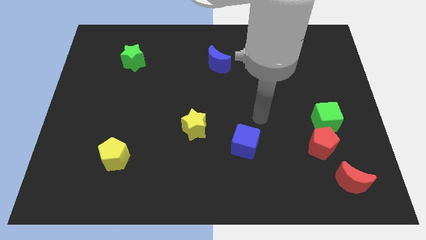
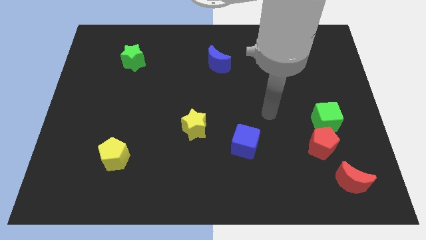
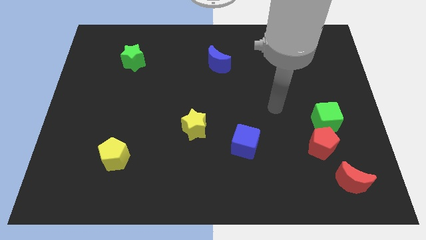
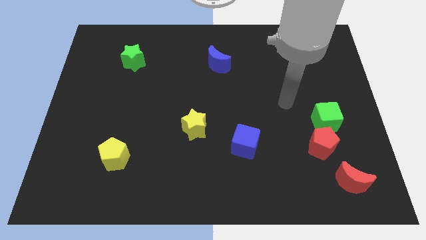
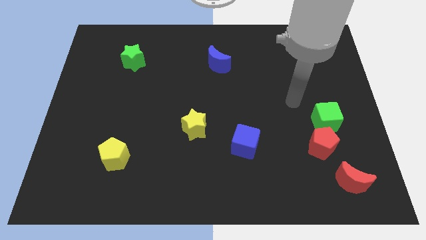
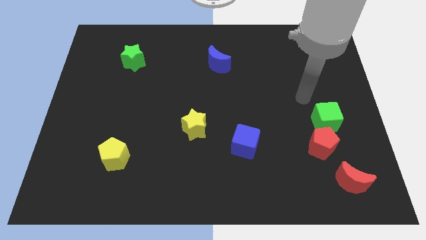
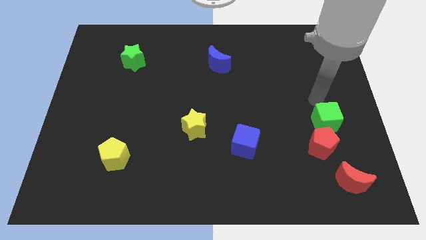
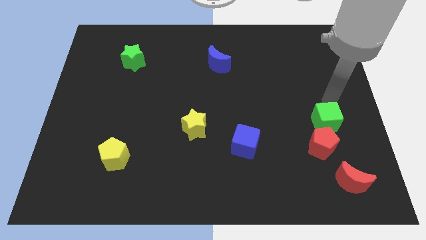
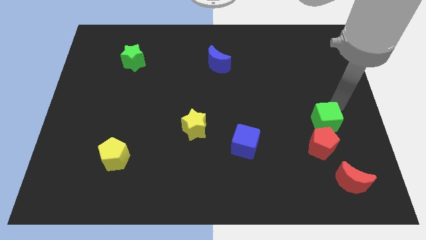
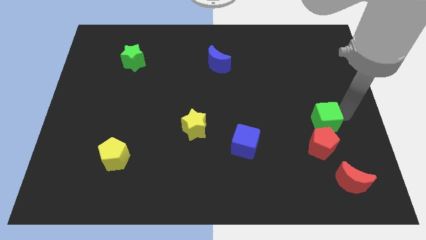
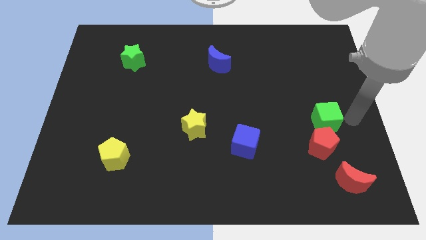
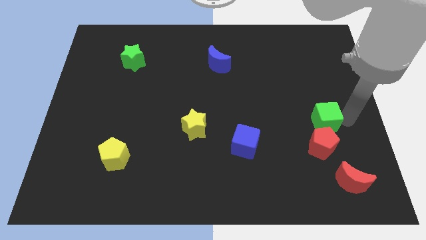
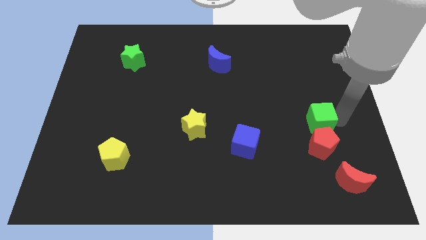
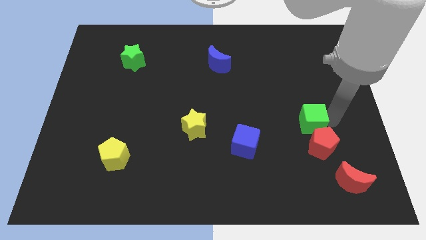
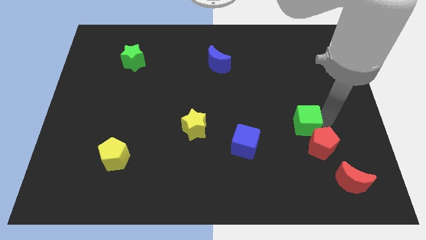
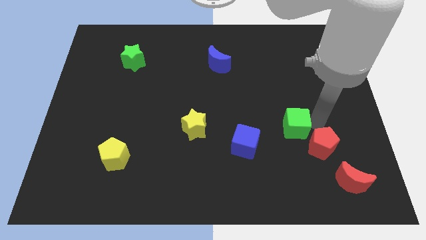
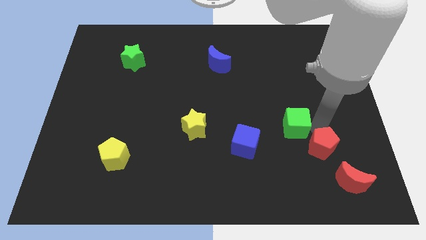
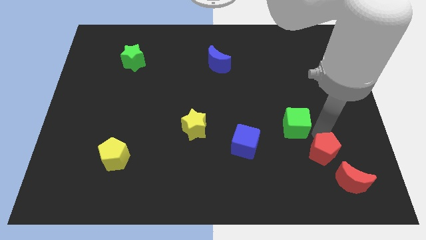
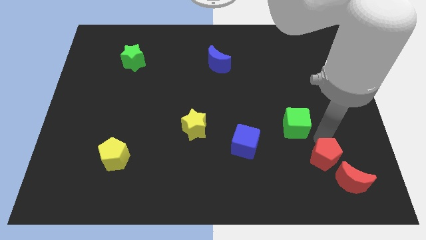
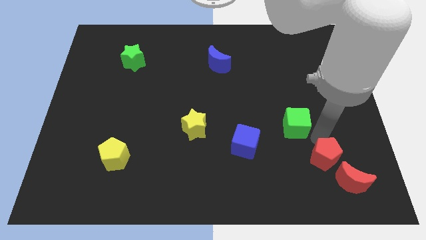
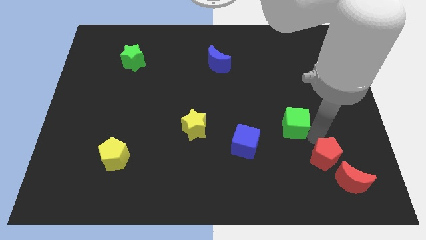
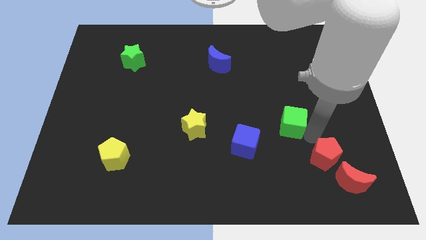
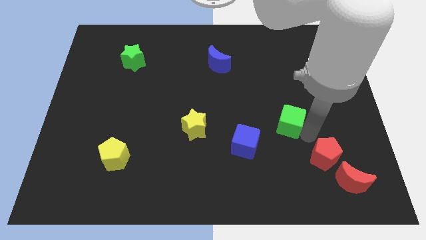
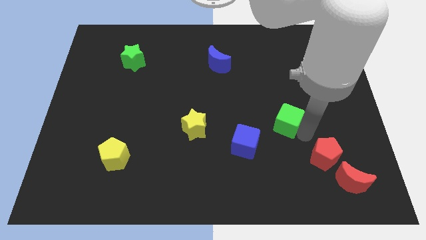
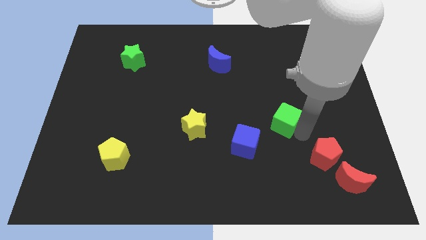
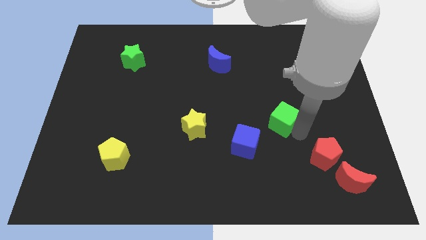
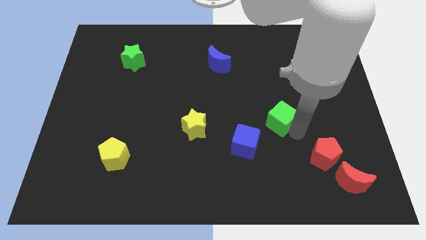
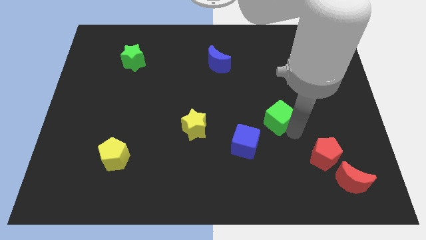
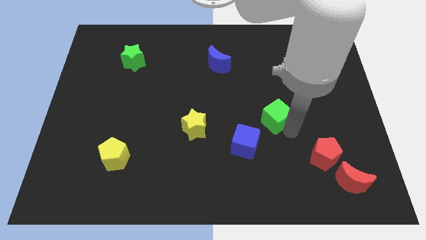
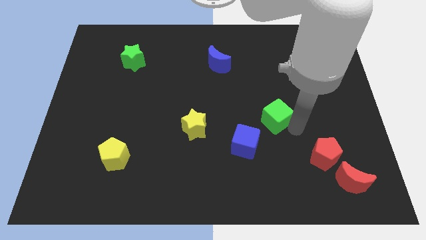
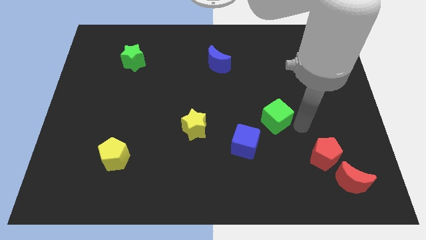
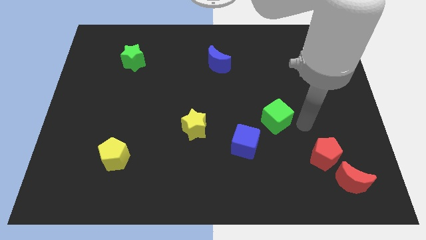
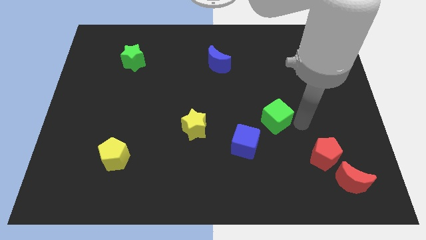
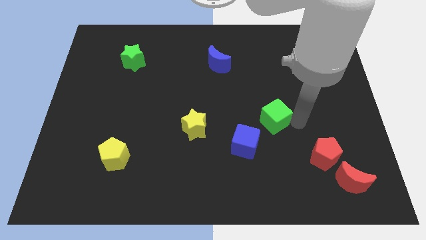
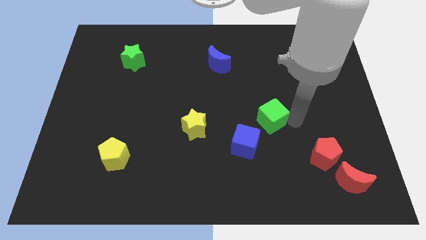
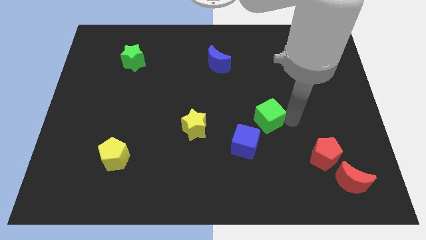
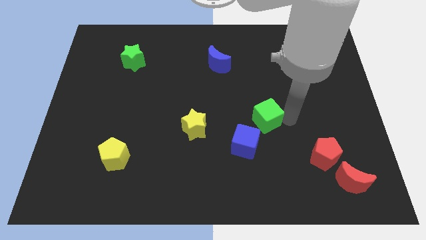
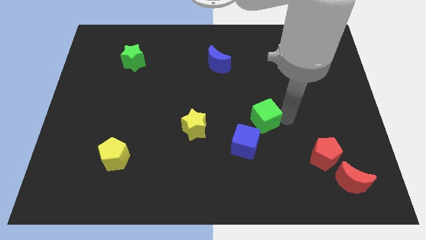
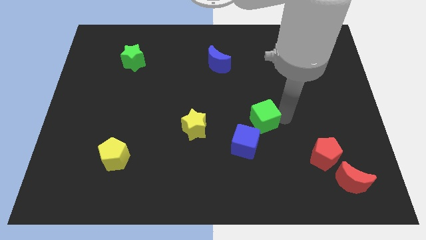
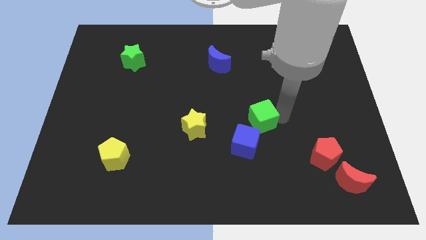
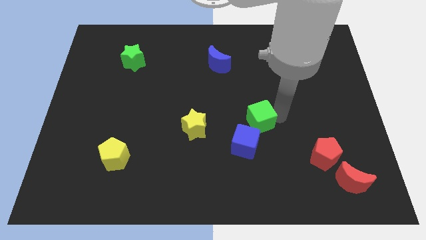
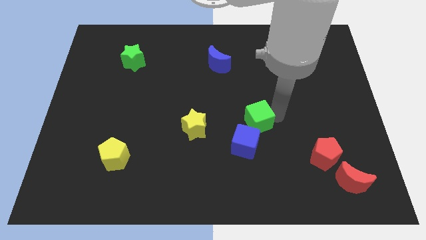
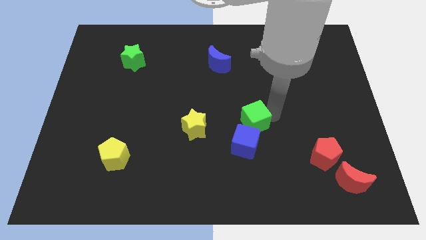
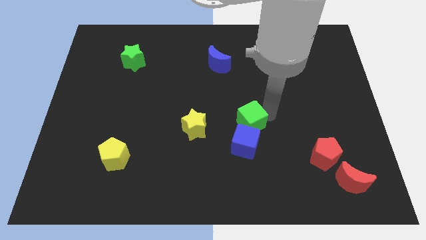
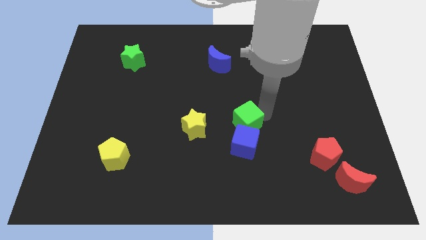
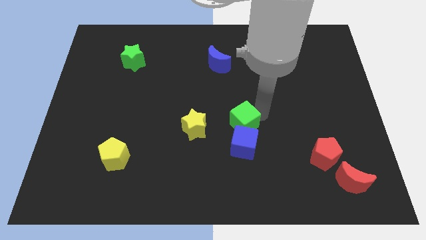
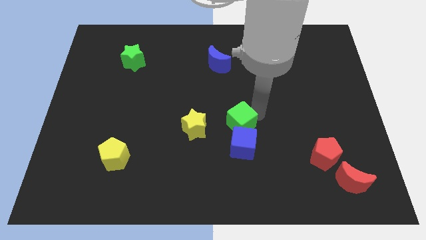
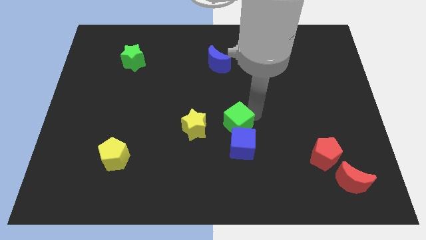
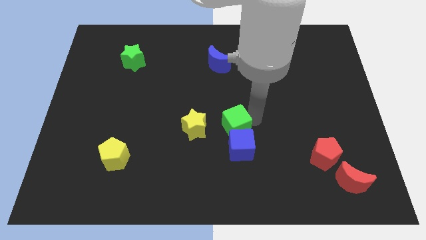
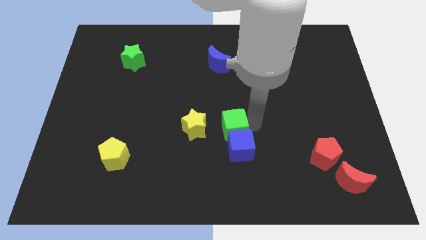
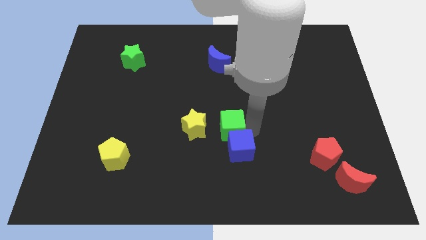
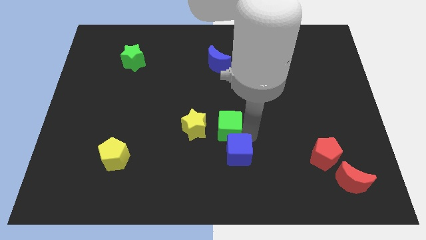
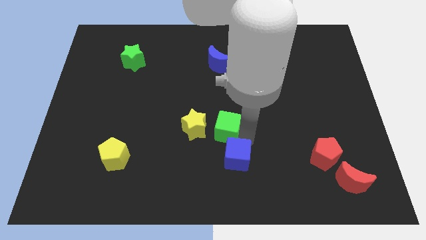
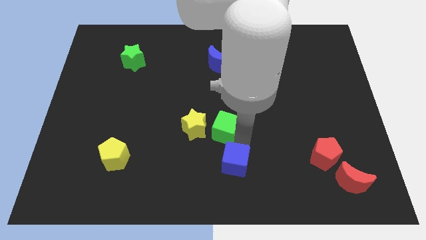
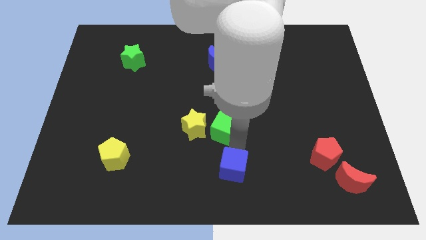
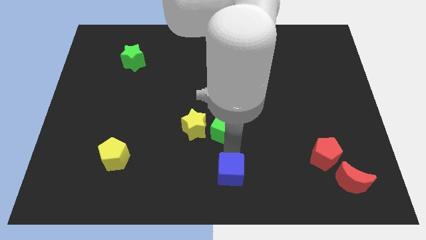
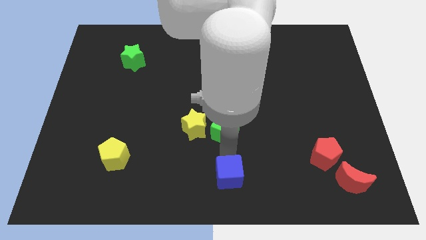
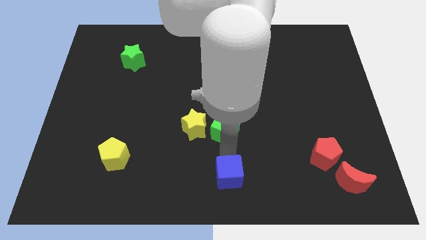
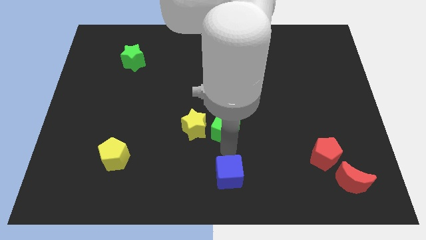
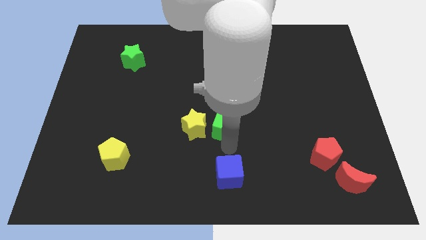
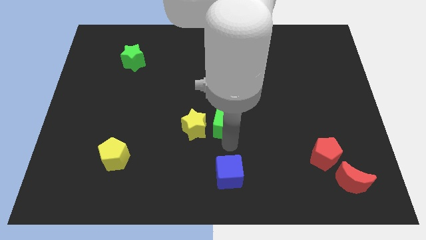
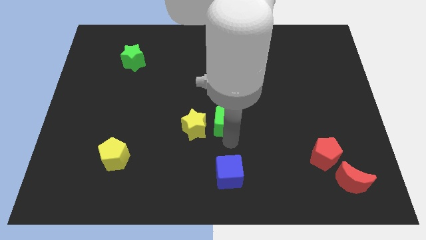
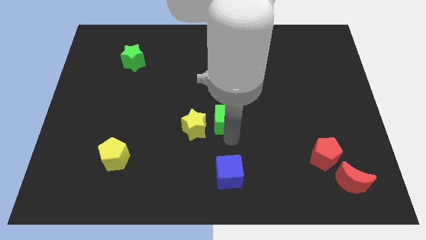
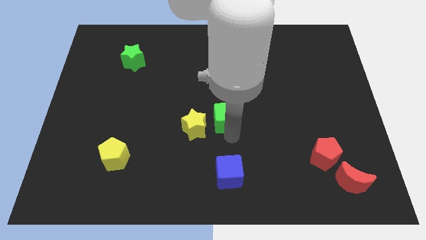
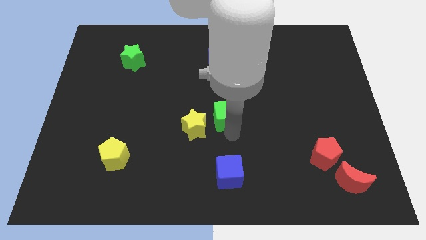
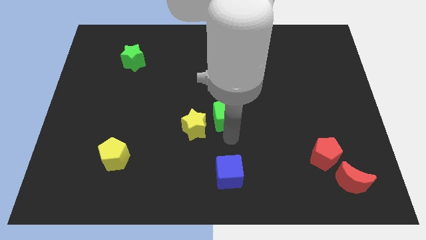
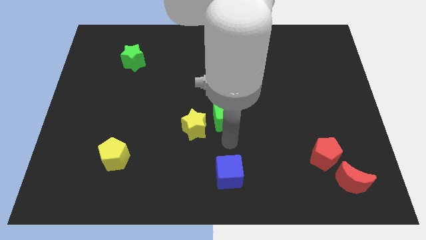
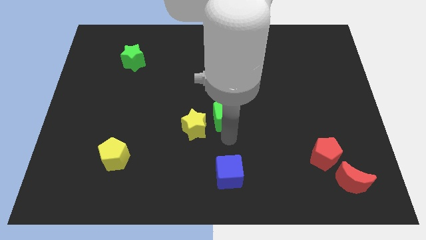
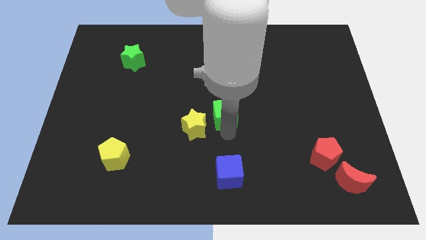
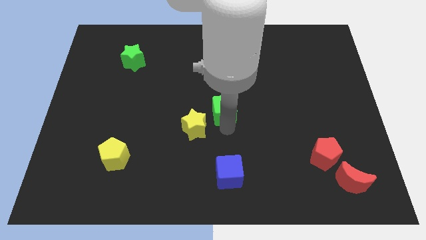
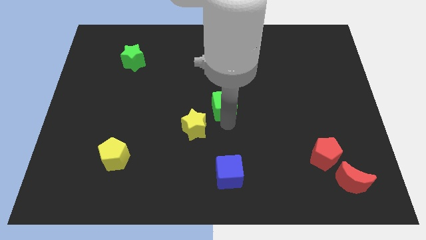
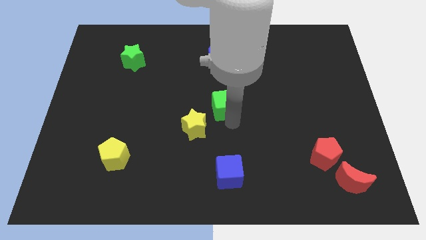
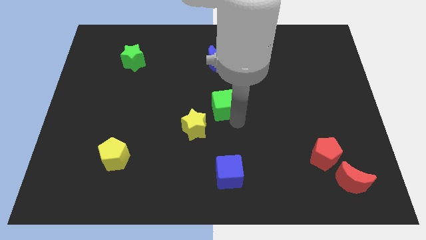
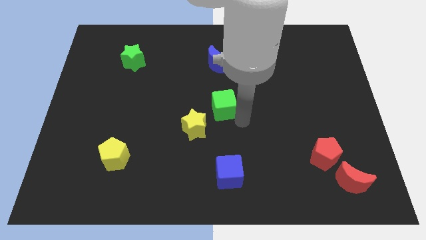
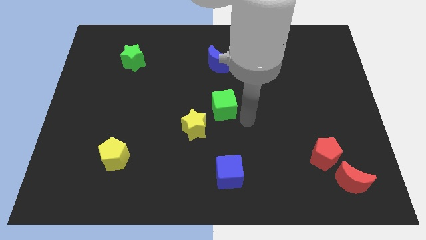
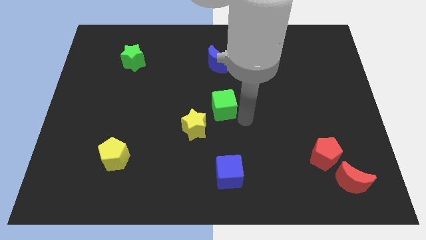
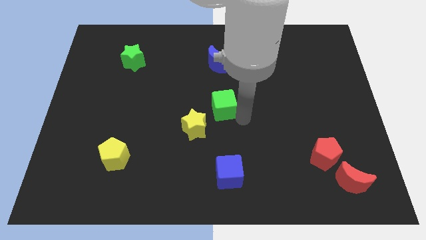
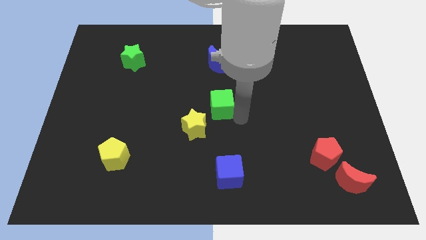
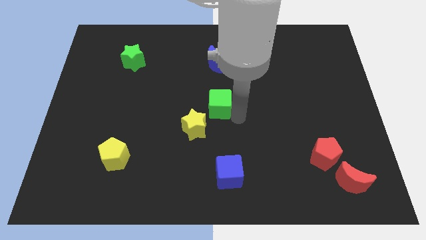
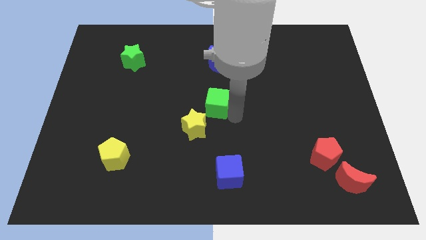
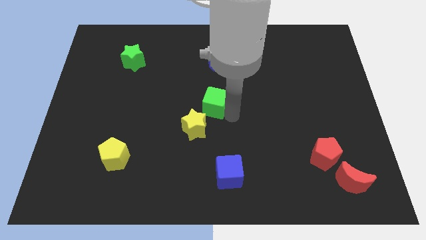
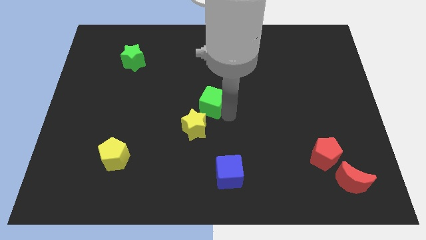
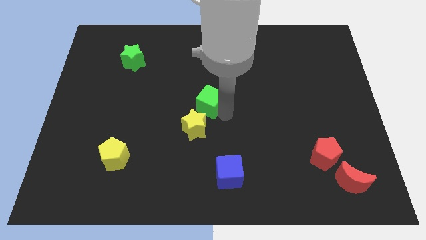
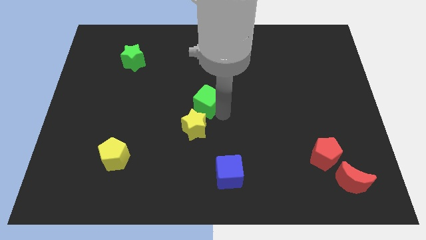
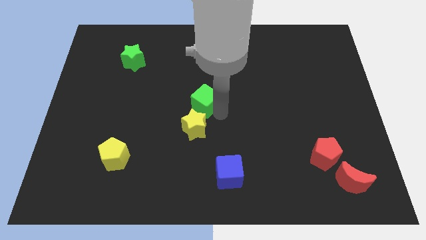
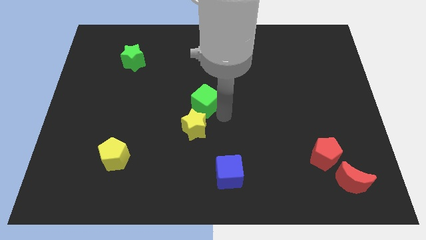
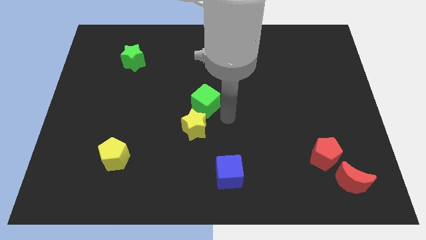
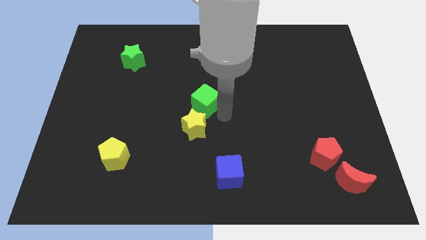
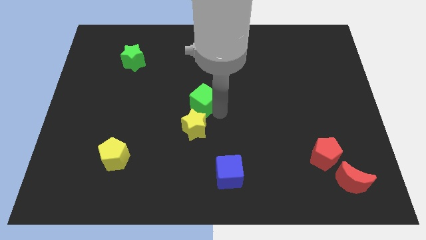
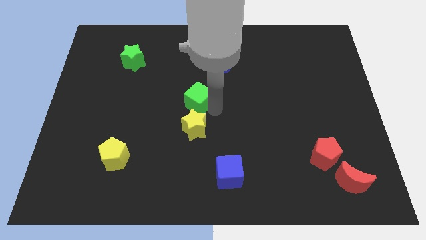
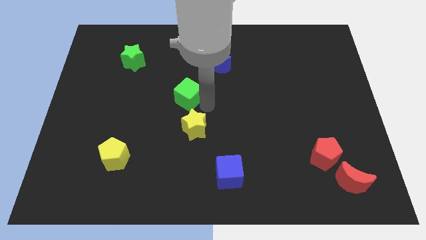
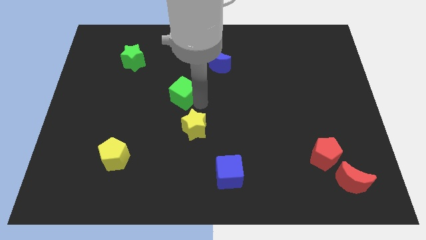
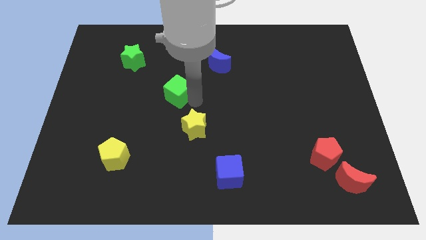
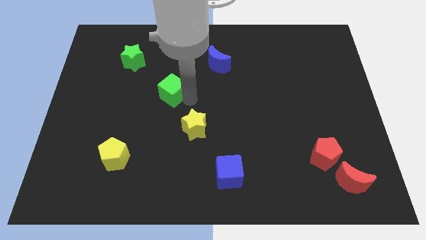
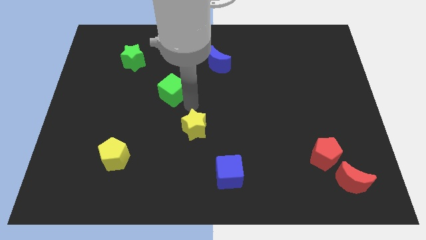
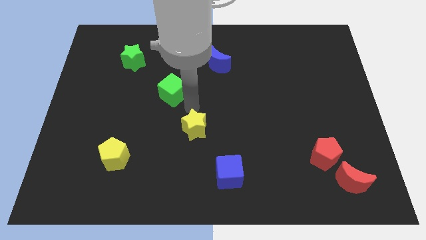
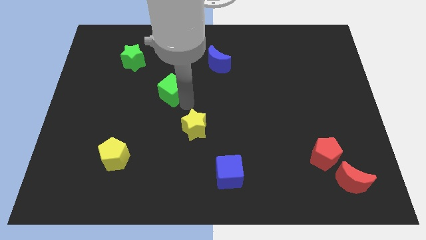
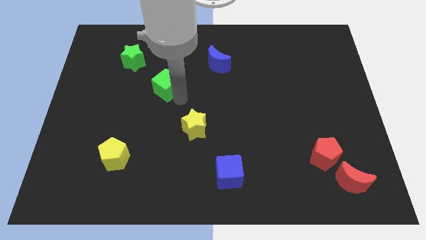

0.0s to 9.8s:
put the green cube diagonally down and to the right of the green star
